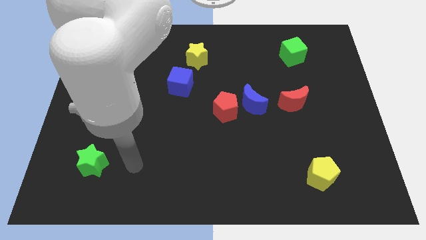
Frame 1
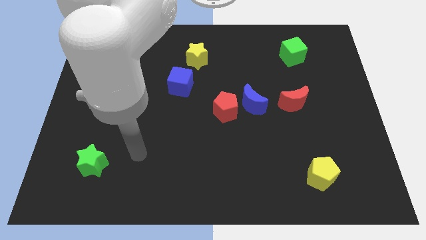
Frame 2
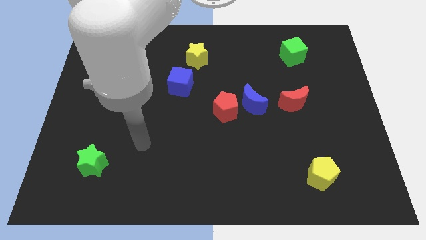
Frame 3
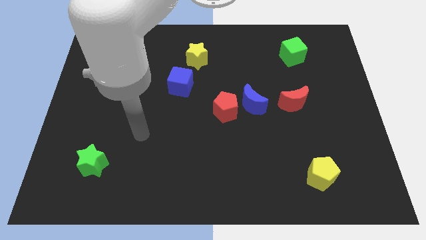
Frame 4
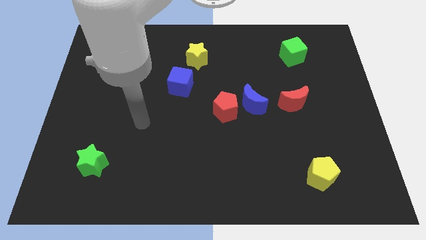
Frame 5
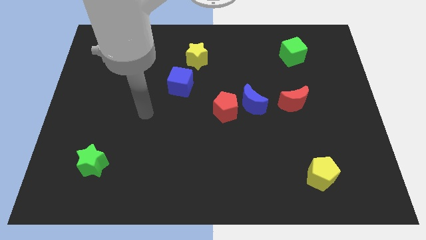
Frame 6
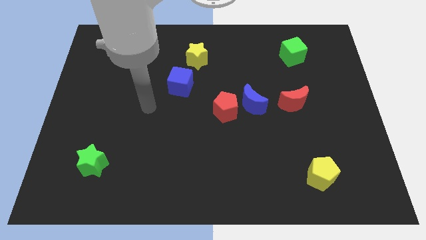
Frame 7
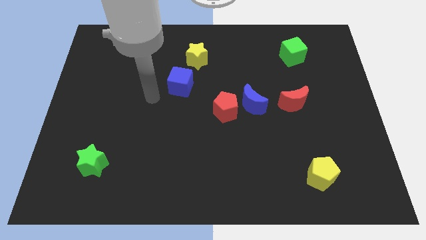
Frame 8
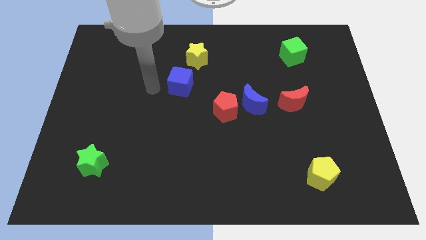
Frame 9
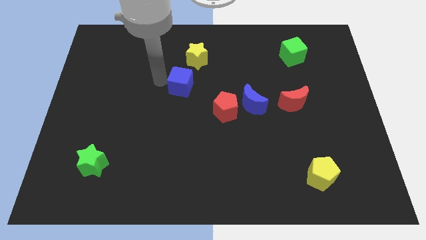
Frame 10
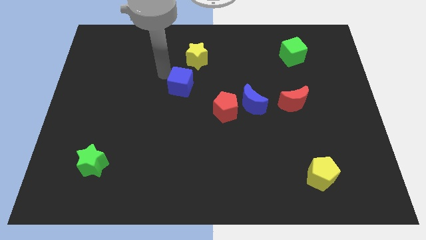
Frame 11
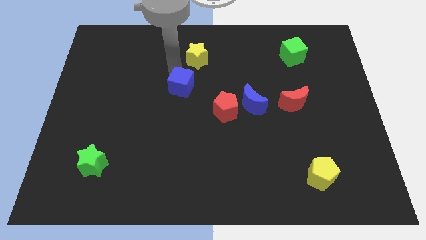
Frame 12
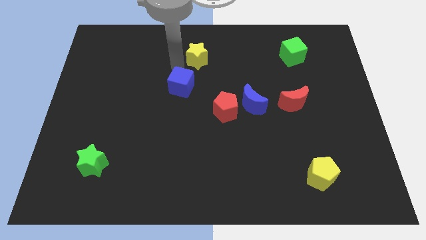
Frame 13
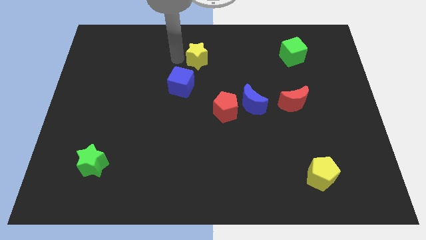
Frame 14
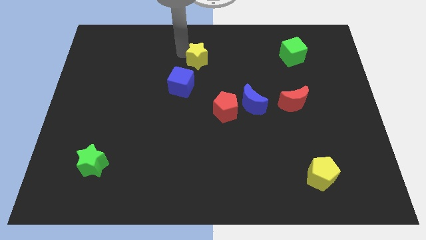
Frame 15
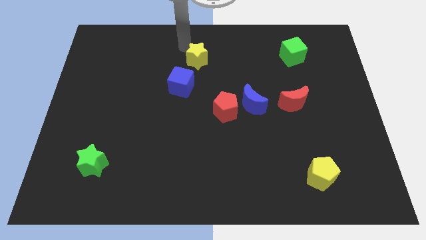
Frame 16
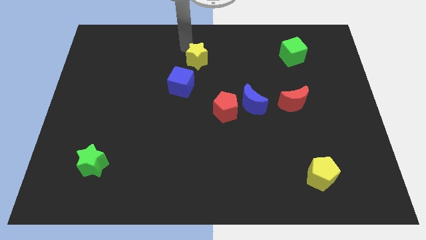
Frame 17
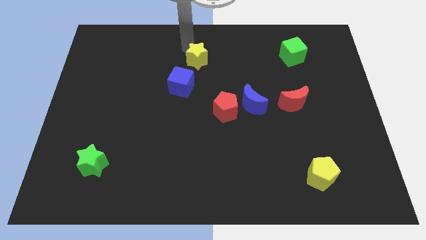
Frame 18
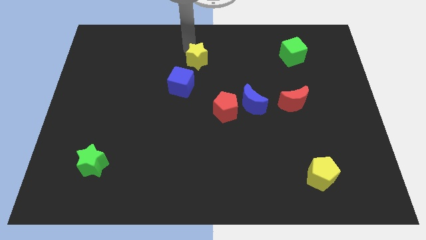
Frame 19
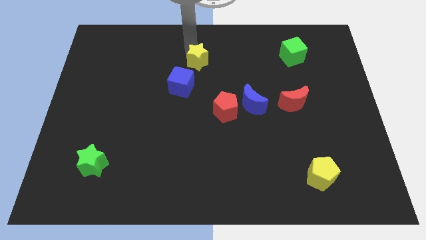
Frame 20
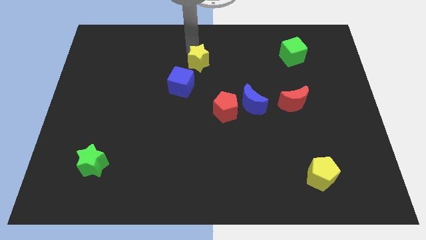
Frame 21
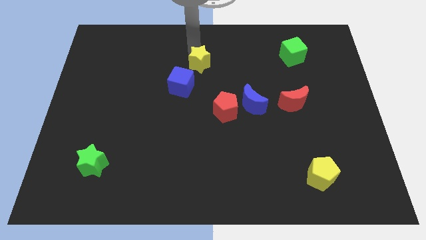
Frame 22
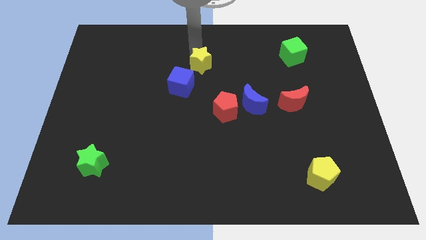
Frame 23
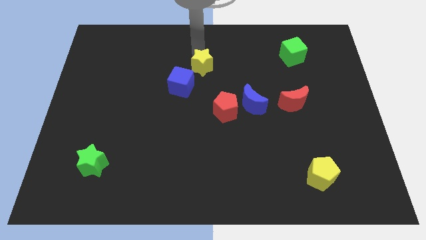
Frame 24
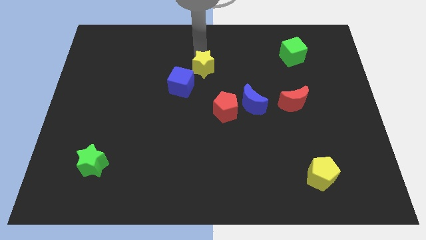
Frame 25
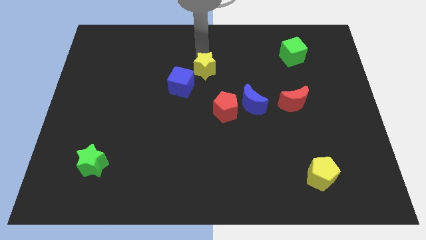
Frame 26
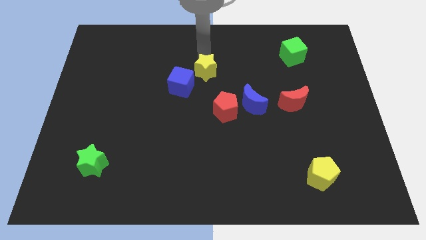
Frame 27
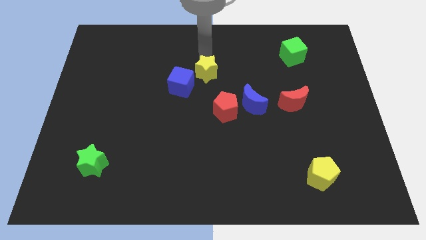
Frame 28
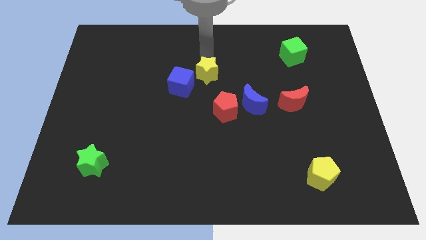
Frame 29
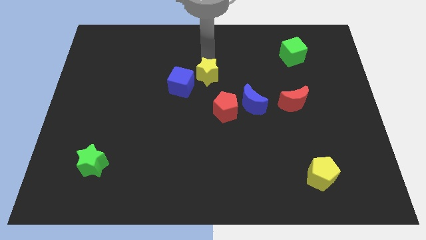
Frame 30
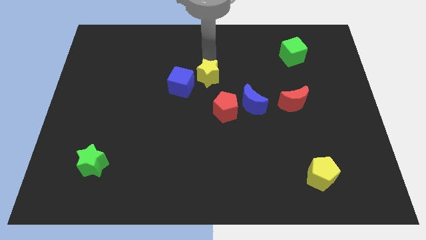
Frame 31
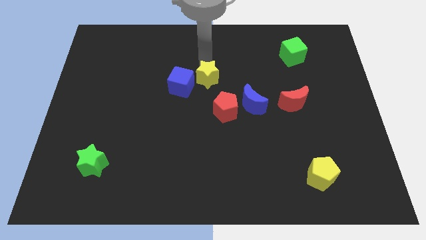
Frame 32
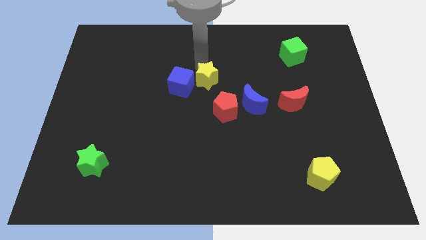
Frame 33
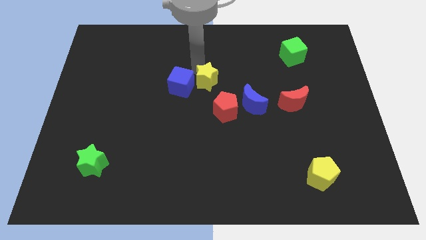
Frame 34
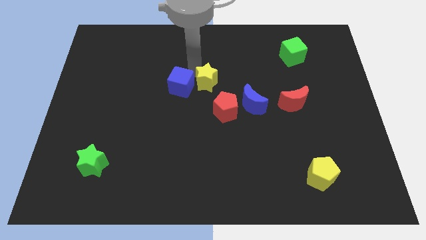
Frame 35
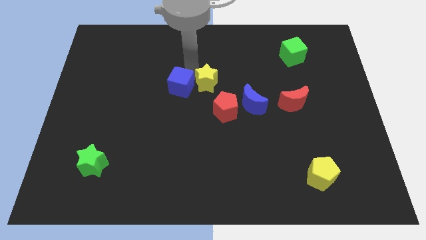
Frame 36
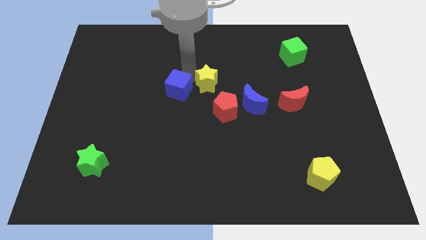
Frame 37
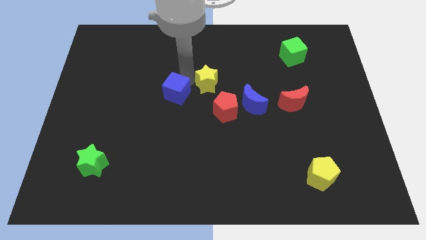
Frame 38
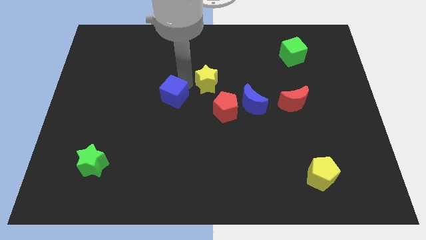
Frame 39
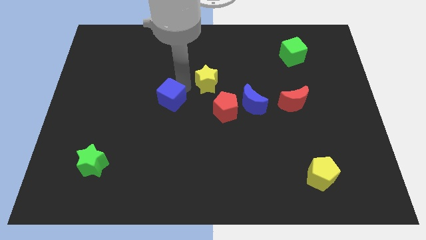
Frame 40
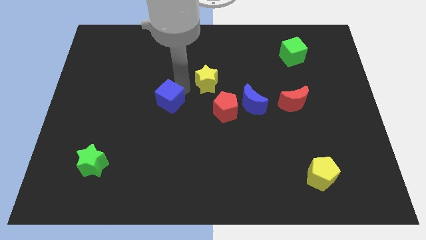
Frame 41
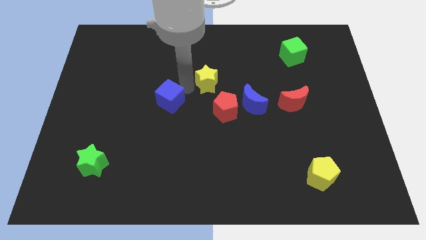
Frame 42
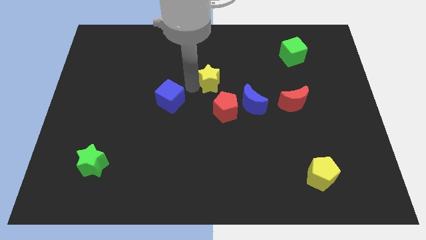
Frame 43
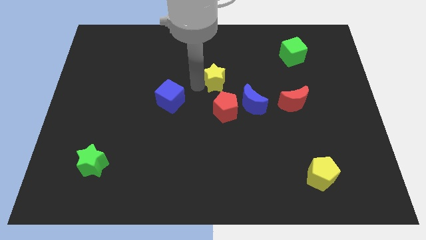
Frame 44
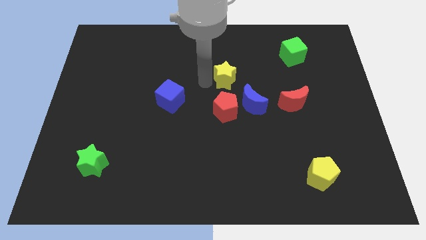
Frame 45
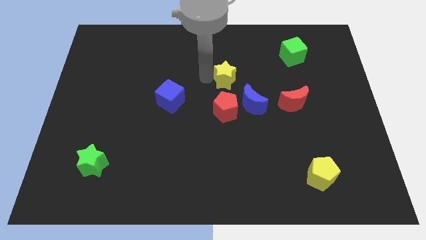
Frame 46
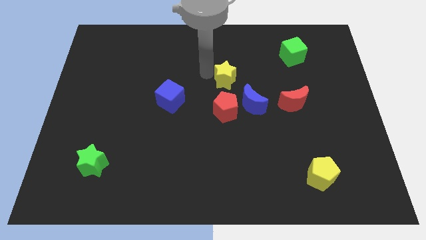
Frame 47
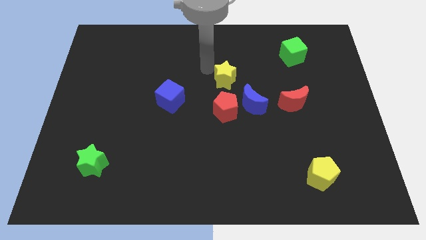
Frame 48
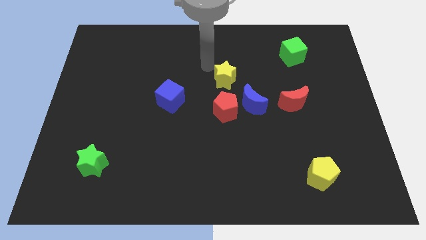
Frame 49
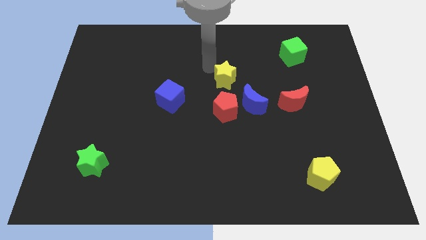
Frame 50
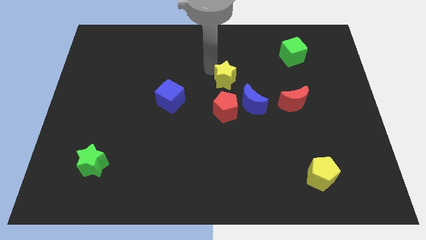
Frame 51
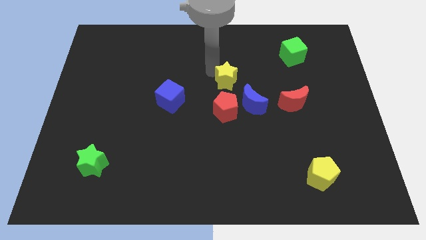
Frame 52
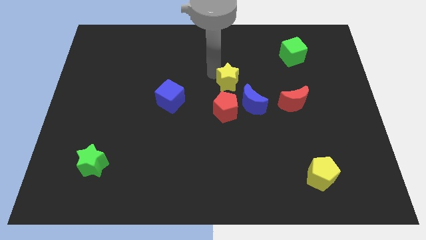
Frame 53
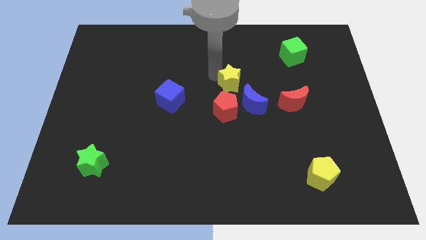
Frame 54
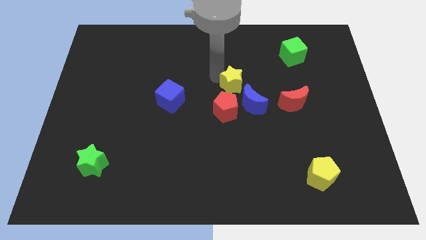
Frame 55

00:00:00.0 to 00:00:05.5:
put the yellow star diagonally up and to the right of the red pentagon

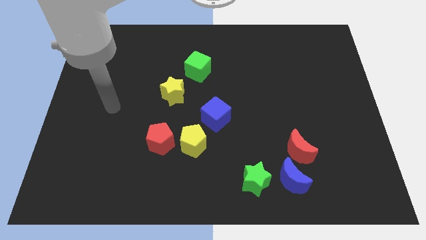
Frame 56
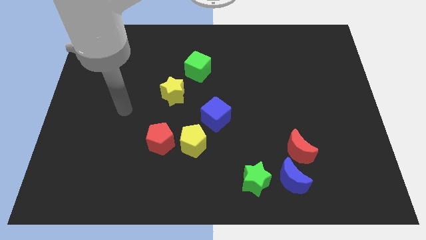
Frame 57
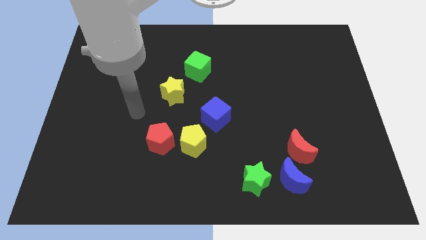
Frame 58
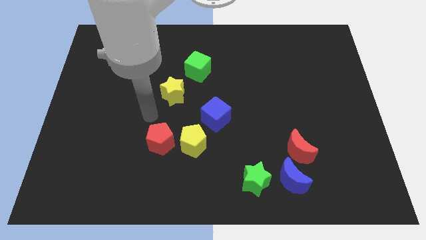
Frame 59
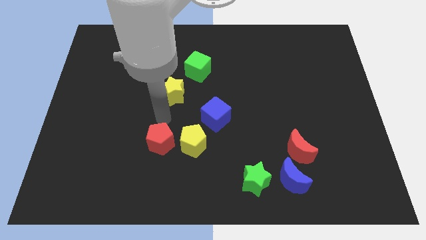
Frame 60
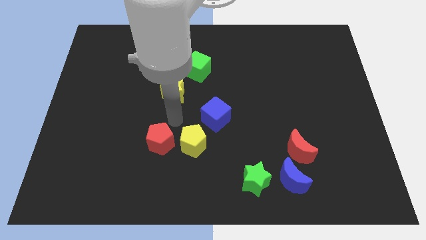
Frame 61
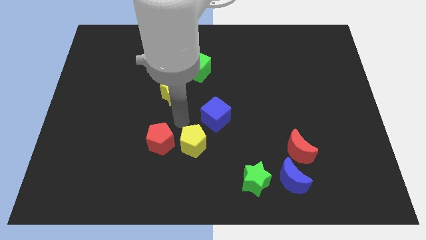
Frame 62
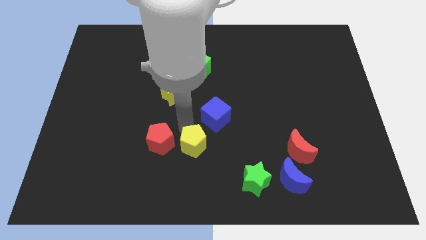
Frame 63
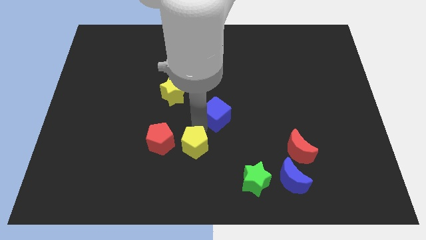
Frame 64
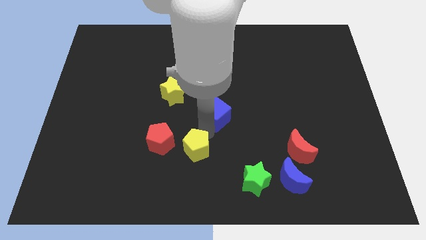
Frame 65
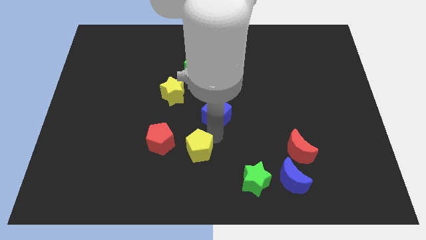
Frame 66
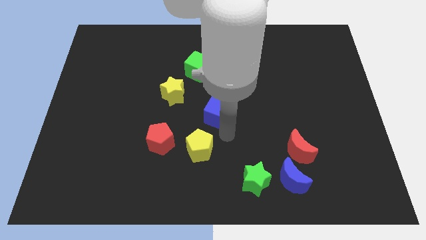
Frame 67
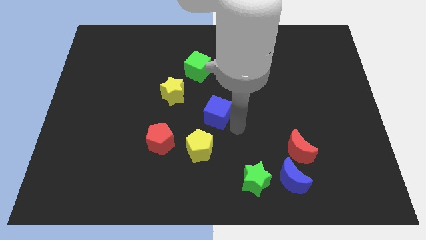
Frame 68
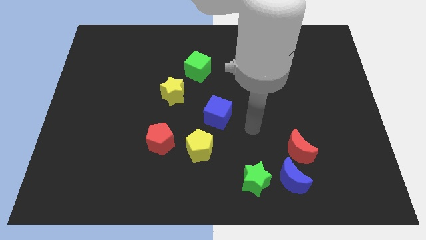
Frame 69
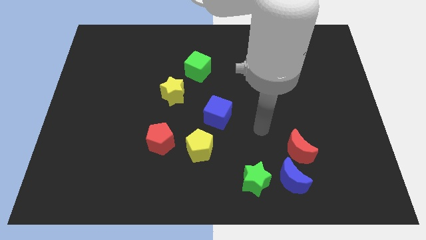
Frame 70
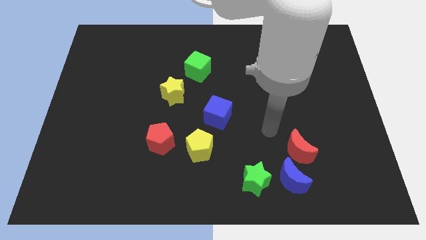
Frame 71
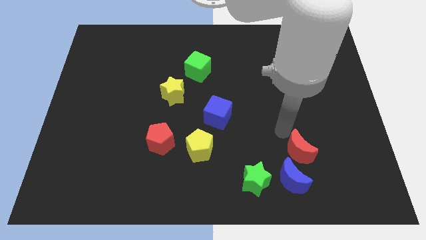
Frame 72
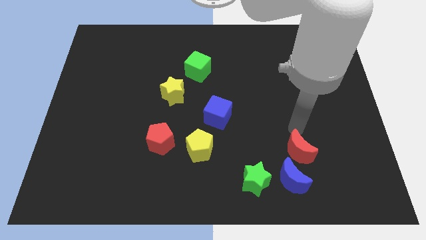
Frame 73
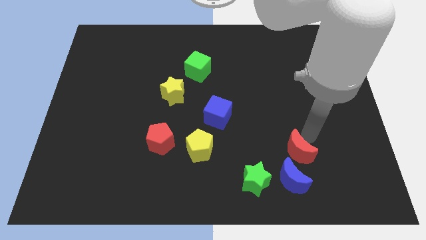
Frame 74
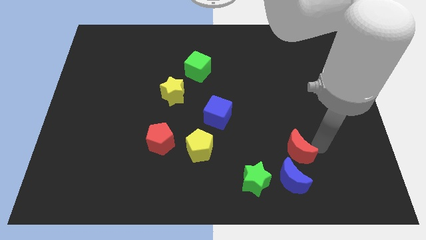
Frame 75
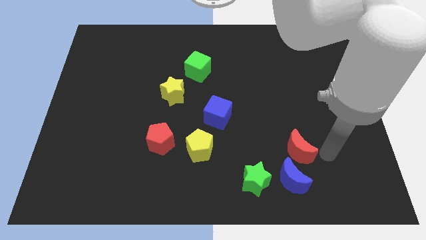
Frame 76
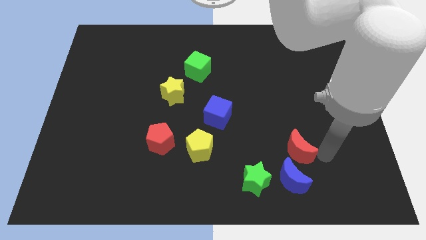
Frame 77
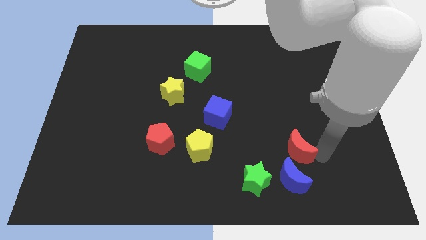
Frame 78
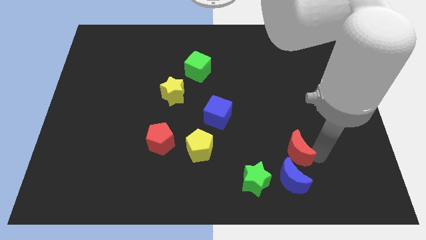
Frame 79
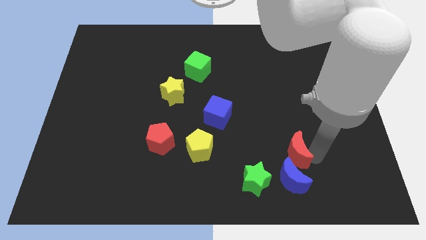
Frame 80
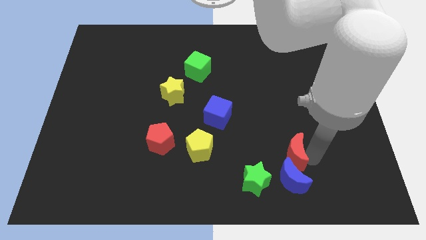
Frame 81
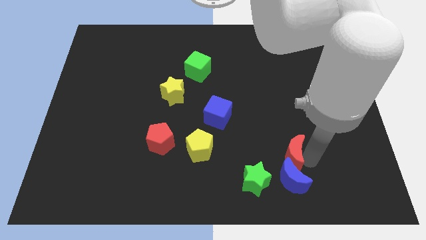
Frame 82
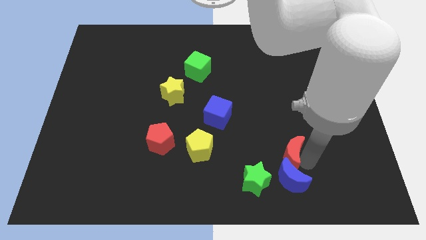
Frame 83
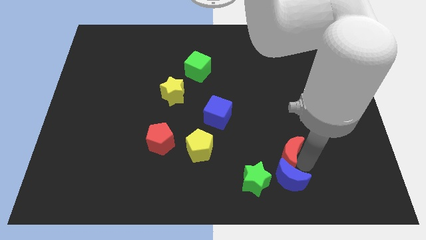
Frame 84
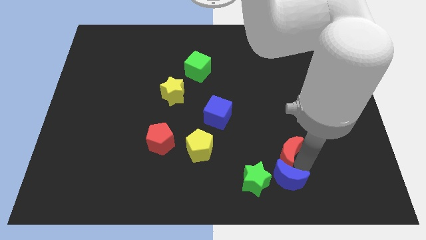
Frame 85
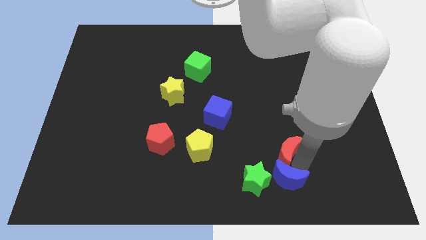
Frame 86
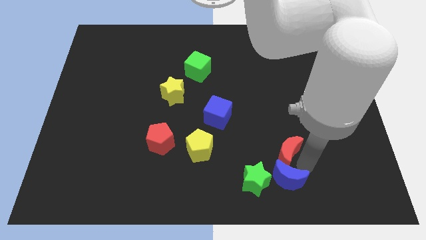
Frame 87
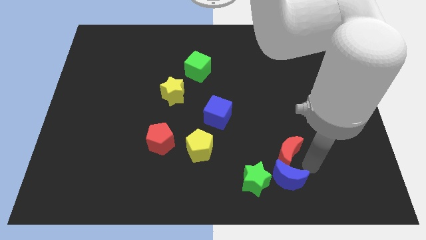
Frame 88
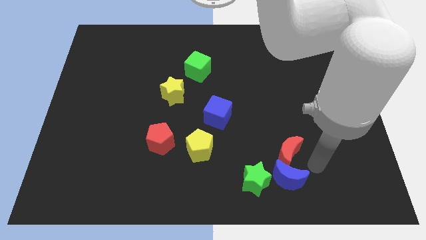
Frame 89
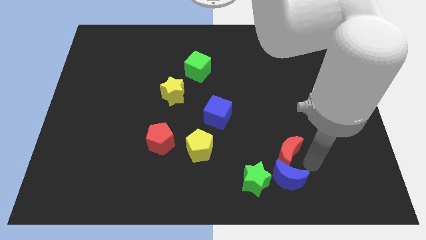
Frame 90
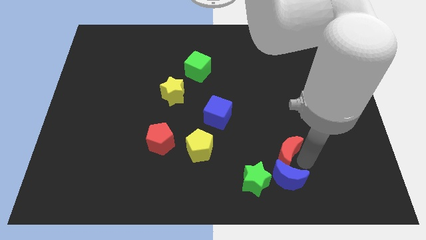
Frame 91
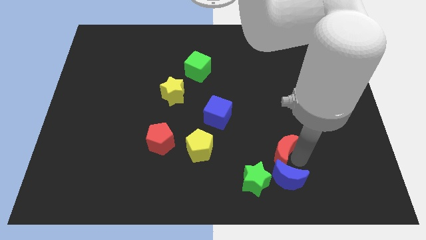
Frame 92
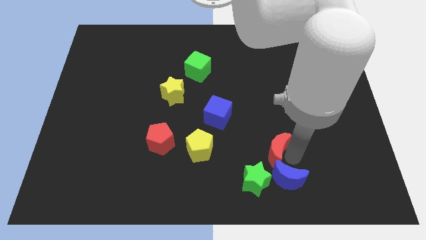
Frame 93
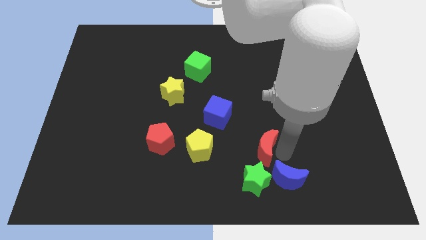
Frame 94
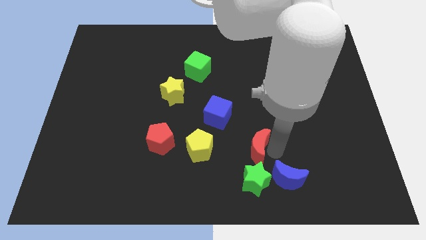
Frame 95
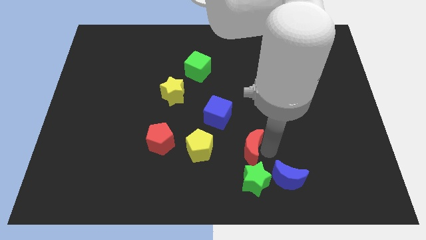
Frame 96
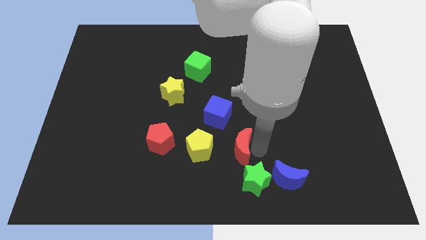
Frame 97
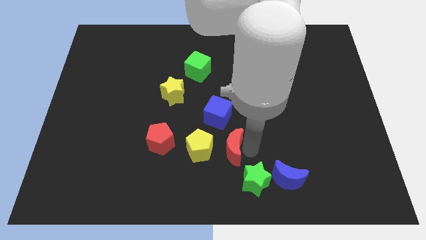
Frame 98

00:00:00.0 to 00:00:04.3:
push the red moon just right of the red pentagon
